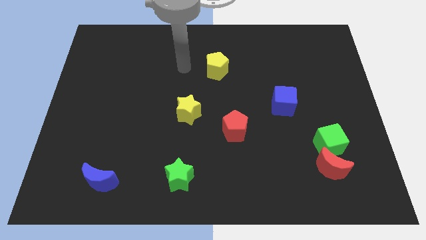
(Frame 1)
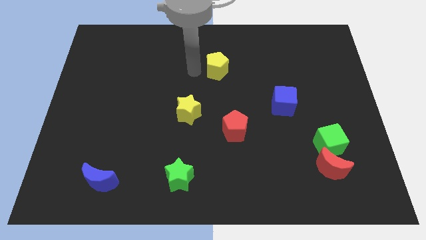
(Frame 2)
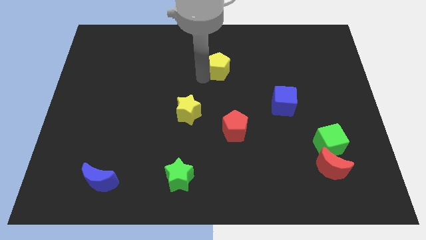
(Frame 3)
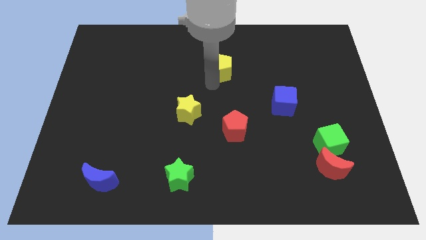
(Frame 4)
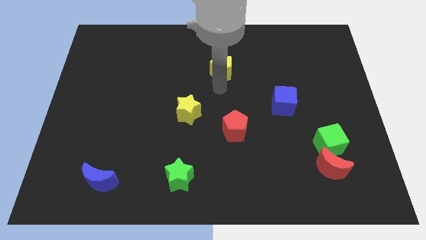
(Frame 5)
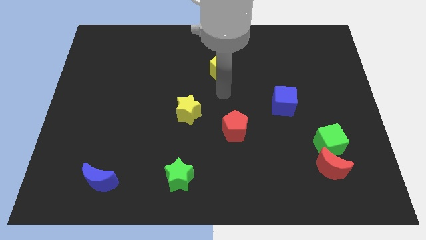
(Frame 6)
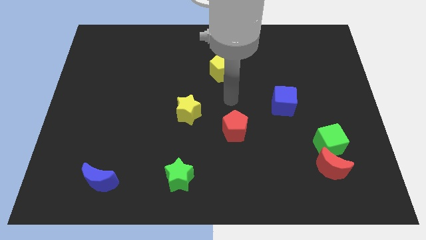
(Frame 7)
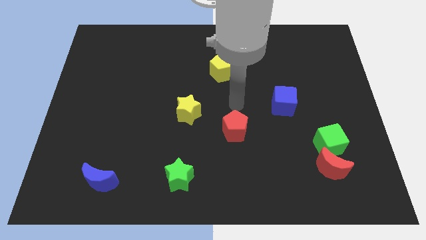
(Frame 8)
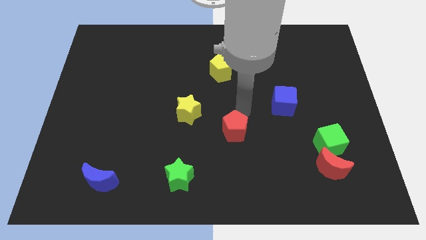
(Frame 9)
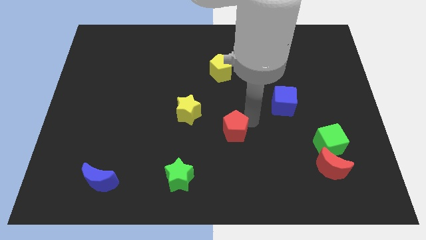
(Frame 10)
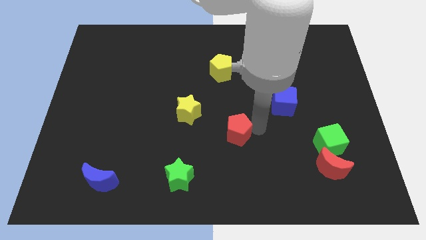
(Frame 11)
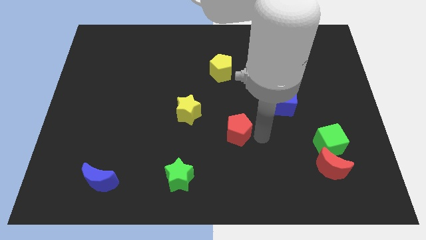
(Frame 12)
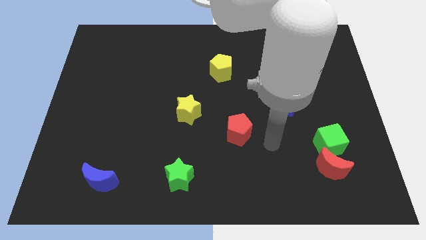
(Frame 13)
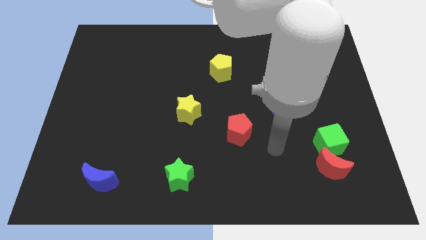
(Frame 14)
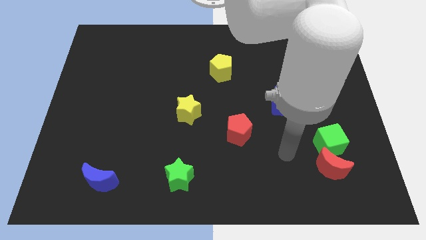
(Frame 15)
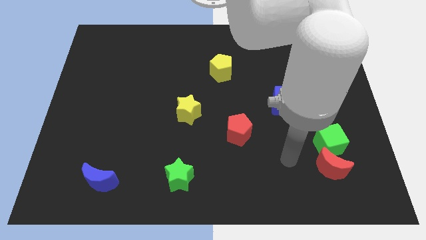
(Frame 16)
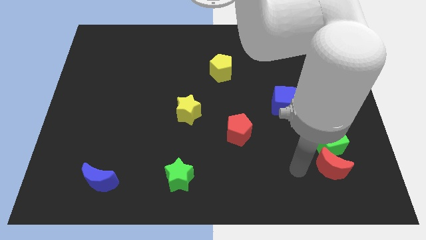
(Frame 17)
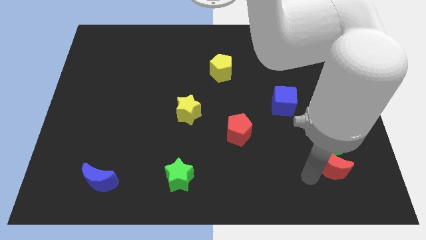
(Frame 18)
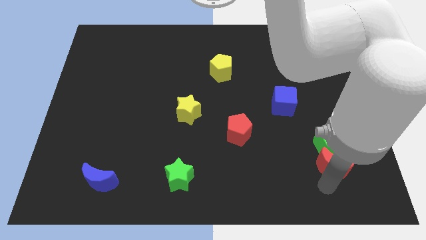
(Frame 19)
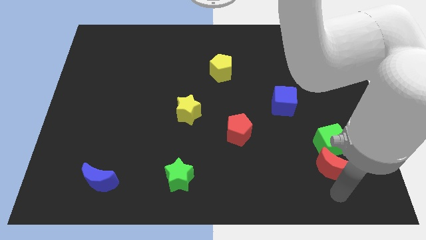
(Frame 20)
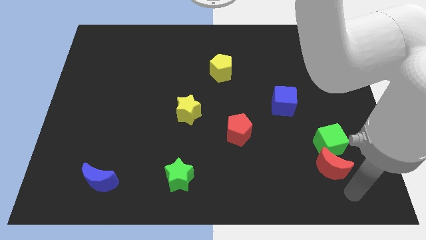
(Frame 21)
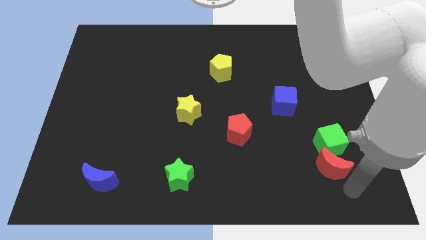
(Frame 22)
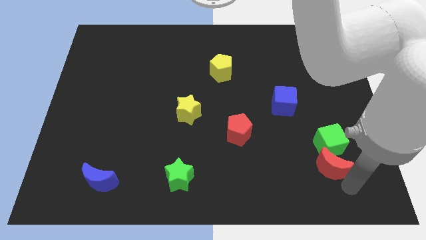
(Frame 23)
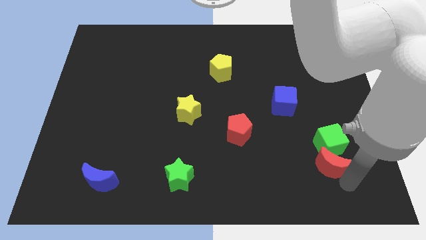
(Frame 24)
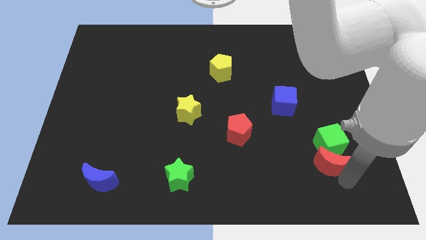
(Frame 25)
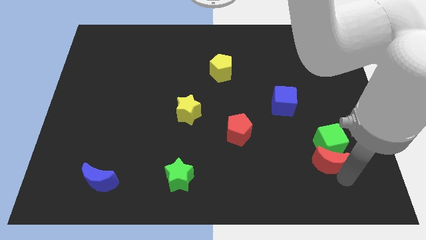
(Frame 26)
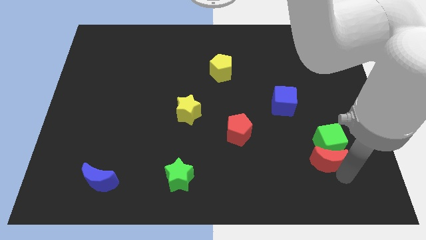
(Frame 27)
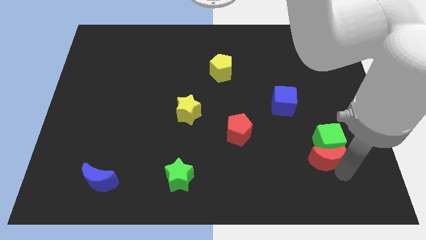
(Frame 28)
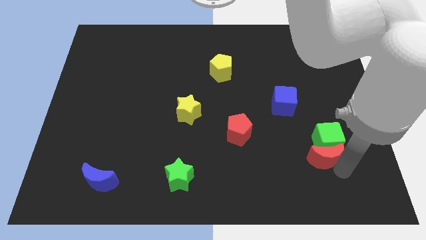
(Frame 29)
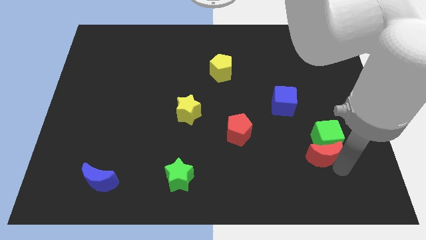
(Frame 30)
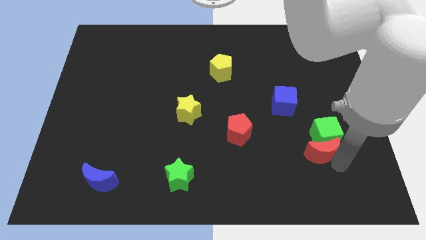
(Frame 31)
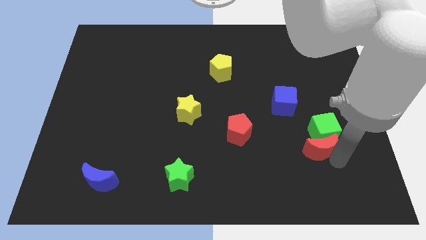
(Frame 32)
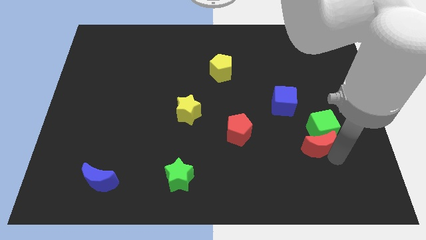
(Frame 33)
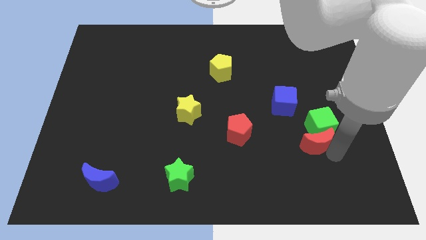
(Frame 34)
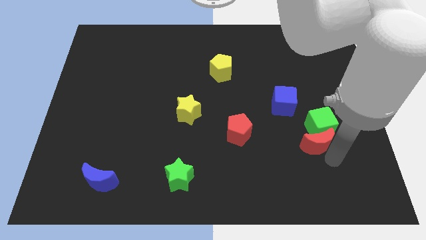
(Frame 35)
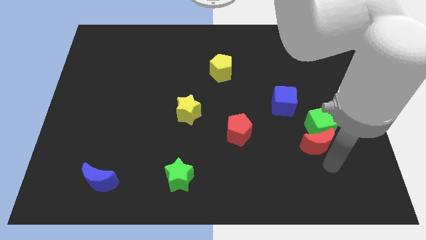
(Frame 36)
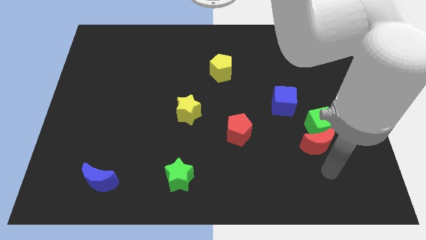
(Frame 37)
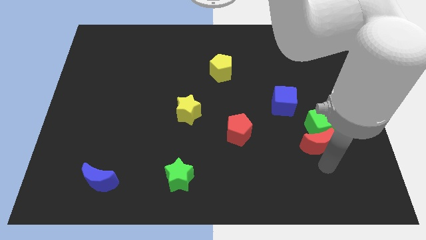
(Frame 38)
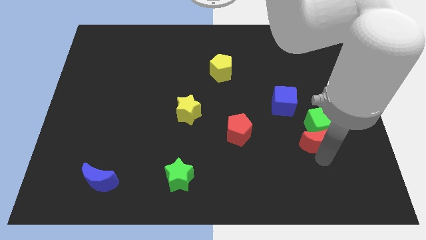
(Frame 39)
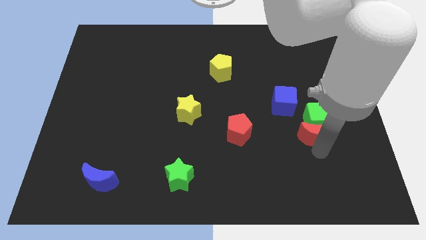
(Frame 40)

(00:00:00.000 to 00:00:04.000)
slide the red moon somewhat upwards

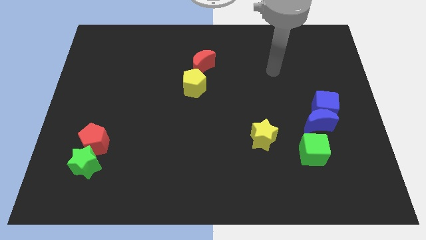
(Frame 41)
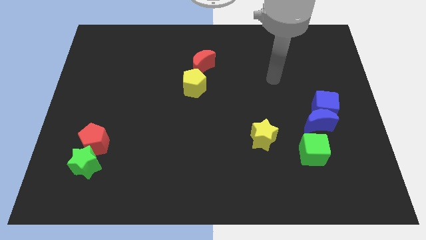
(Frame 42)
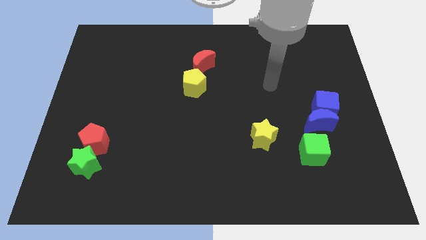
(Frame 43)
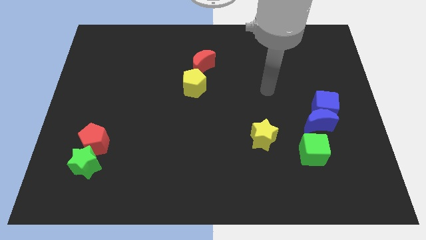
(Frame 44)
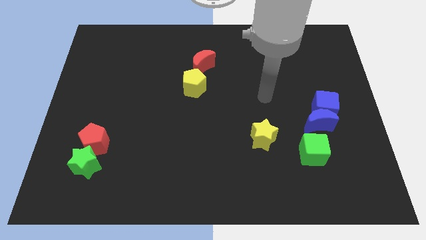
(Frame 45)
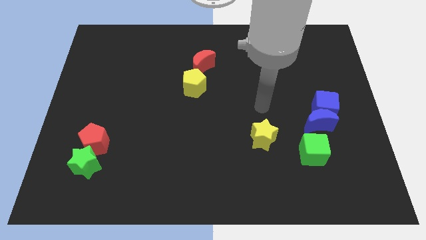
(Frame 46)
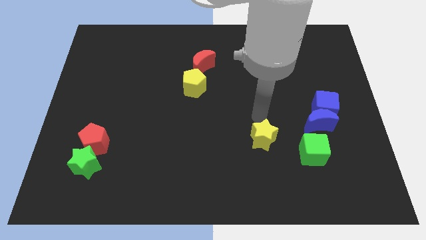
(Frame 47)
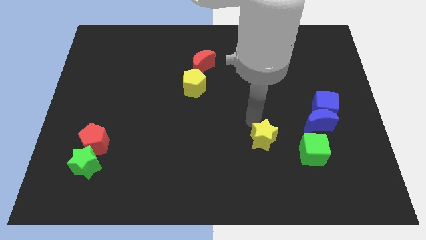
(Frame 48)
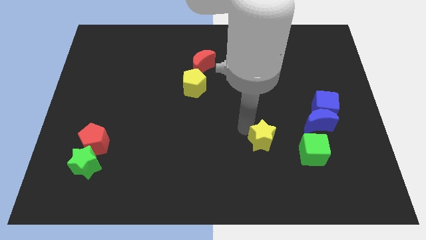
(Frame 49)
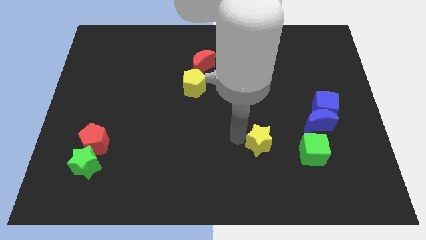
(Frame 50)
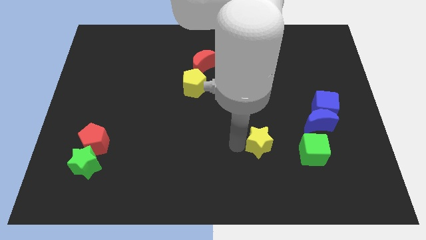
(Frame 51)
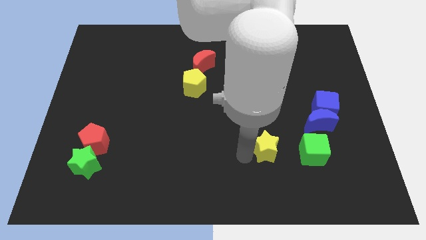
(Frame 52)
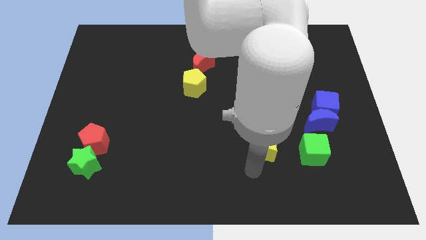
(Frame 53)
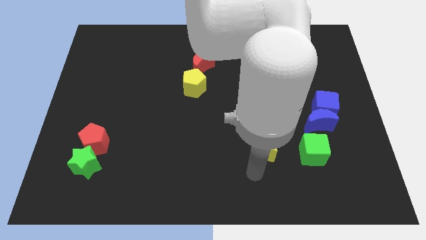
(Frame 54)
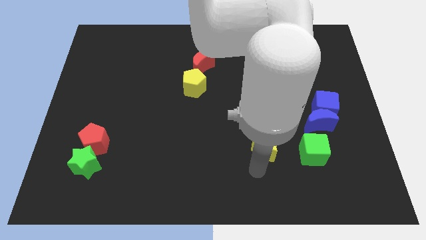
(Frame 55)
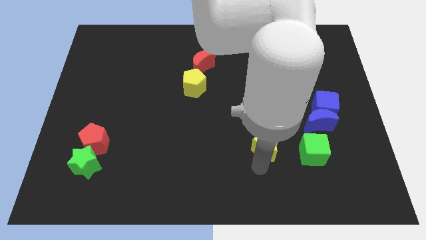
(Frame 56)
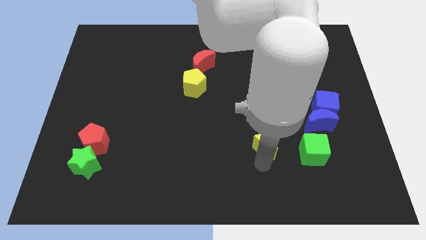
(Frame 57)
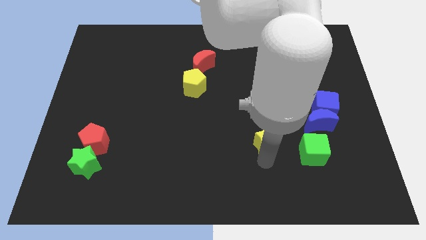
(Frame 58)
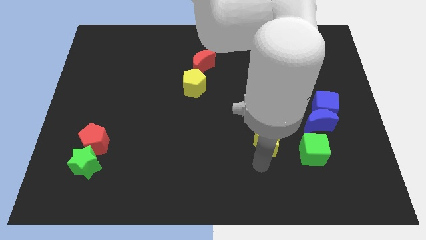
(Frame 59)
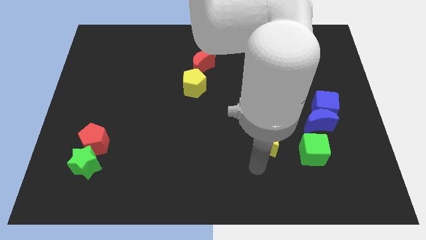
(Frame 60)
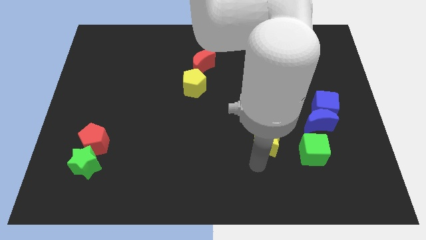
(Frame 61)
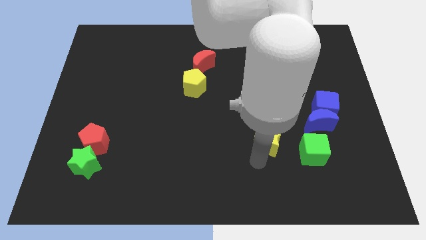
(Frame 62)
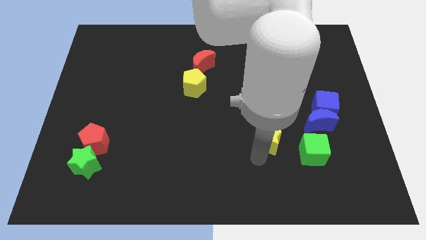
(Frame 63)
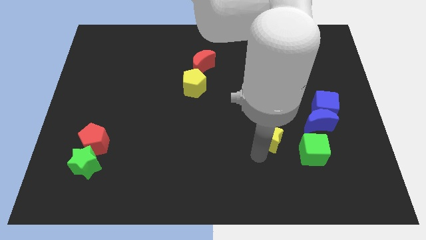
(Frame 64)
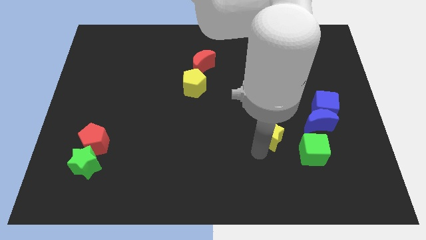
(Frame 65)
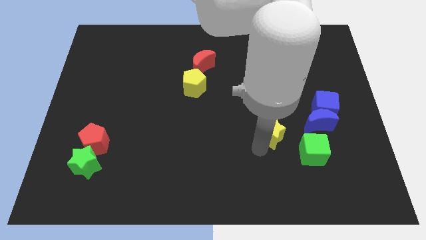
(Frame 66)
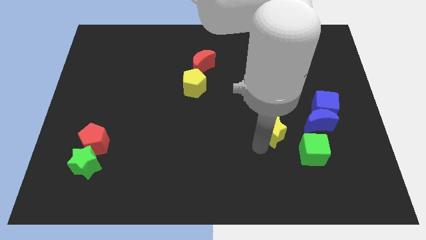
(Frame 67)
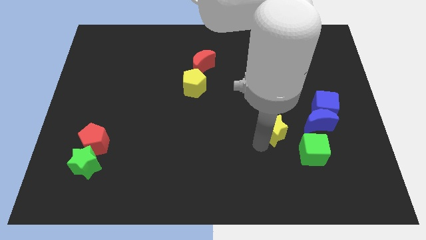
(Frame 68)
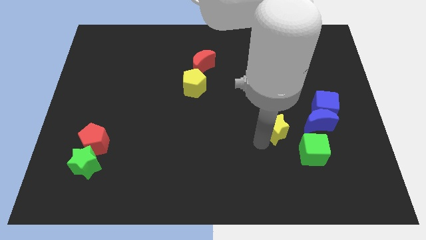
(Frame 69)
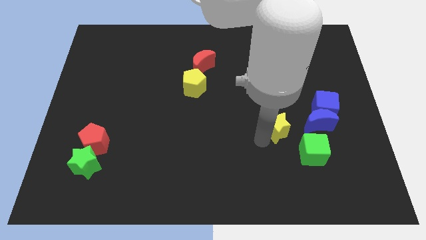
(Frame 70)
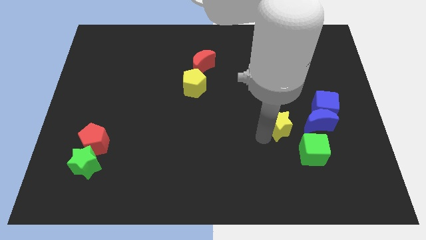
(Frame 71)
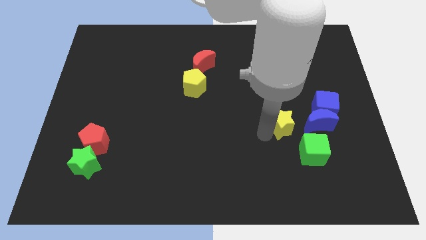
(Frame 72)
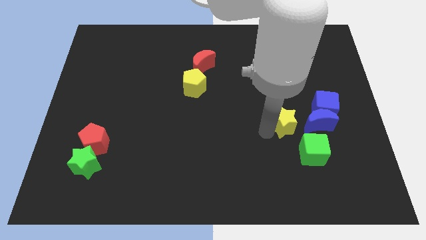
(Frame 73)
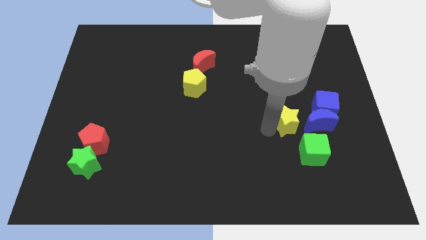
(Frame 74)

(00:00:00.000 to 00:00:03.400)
move the yellow star up and right diagonally slightly

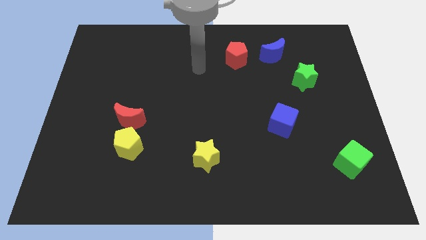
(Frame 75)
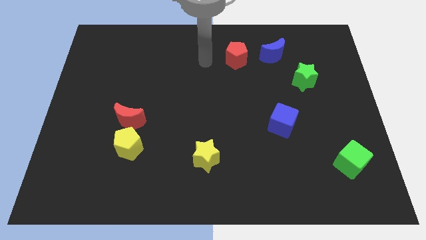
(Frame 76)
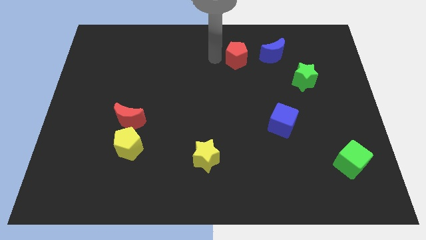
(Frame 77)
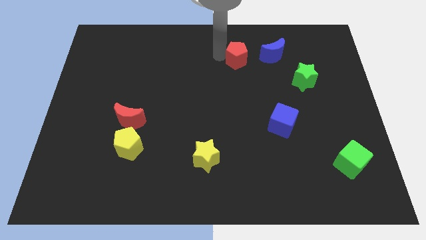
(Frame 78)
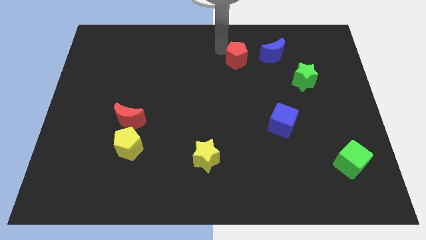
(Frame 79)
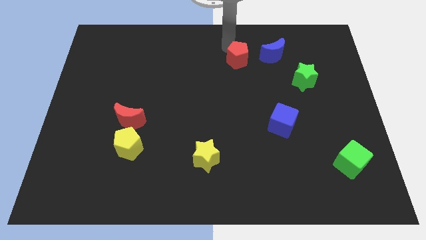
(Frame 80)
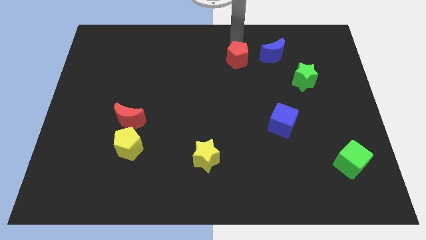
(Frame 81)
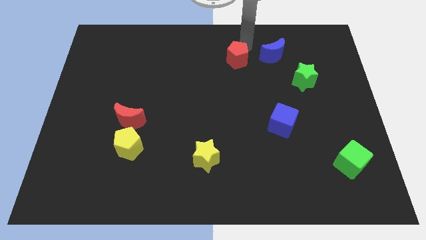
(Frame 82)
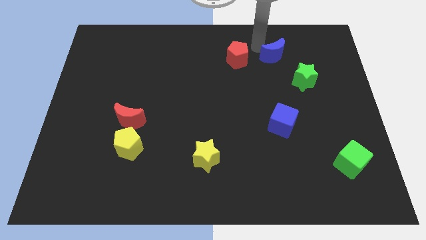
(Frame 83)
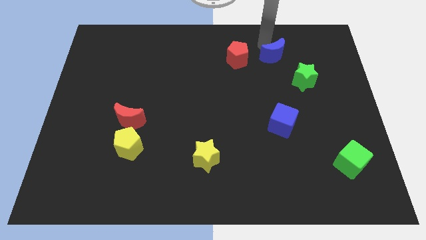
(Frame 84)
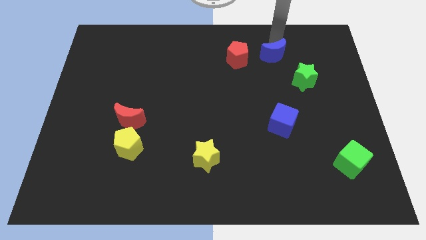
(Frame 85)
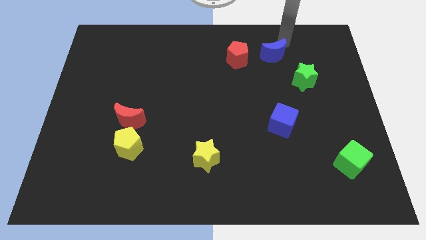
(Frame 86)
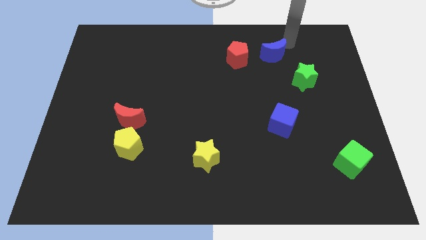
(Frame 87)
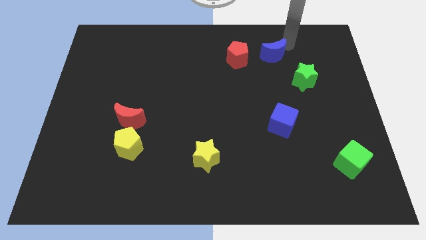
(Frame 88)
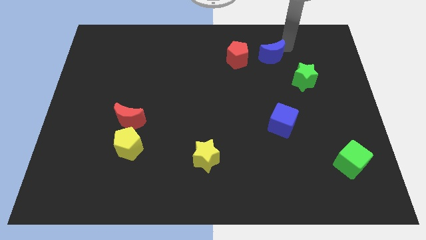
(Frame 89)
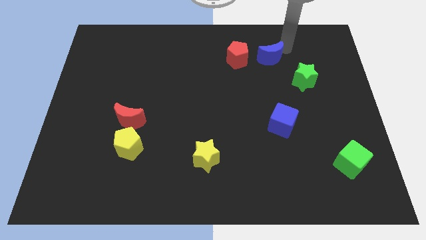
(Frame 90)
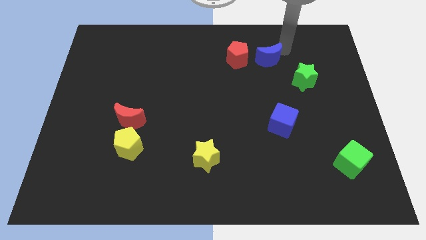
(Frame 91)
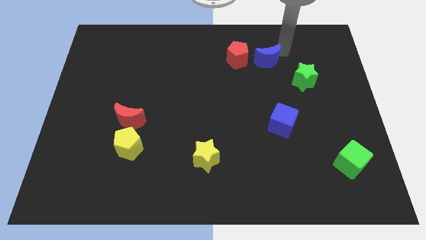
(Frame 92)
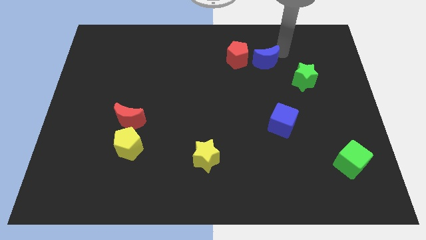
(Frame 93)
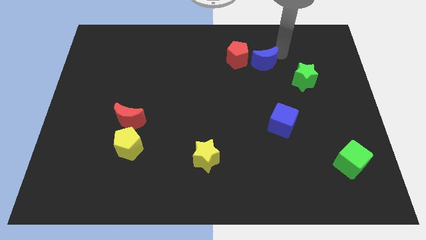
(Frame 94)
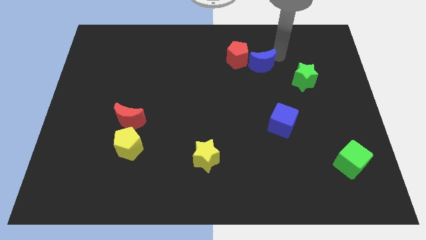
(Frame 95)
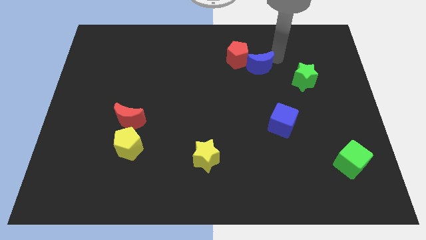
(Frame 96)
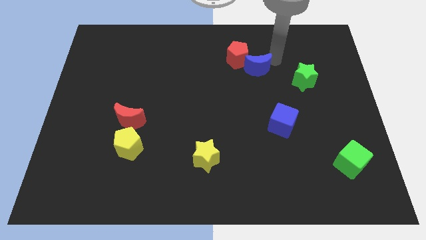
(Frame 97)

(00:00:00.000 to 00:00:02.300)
slightly move the blue moon downwards and then to the left
